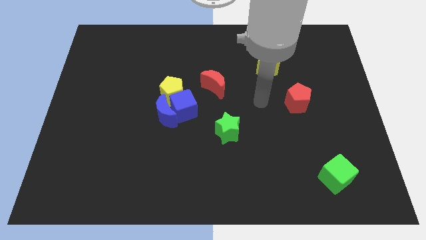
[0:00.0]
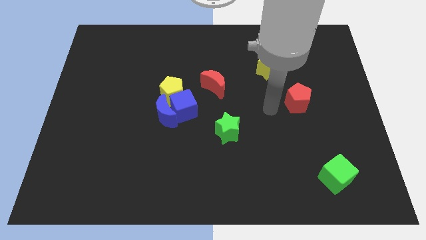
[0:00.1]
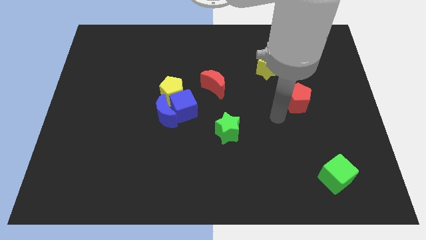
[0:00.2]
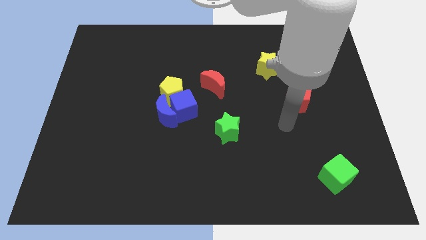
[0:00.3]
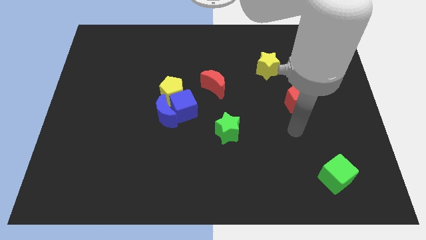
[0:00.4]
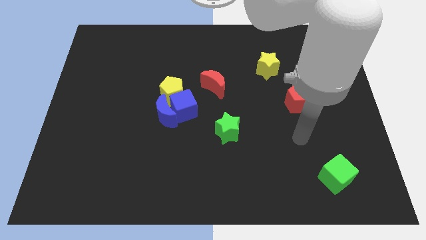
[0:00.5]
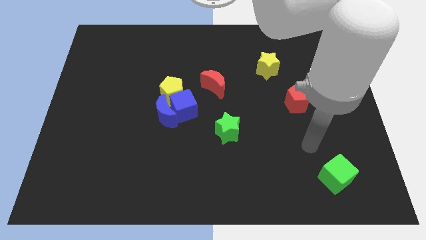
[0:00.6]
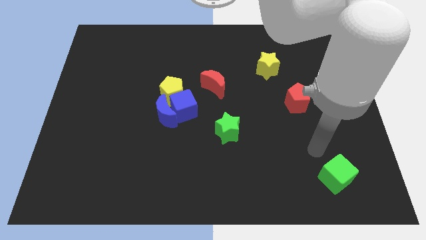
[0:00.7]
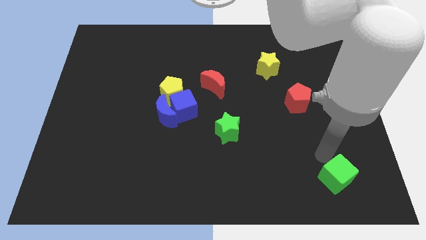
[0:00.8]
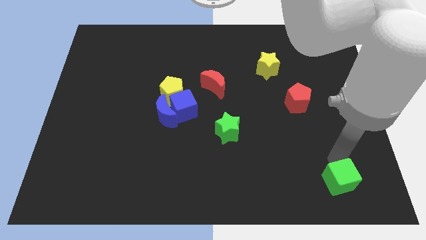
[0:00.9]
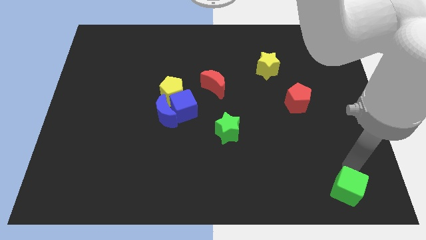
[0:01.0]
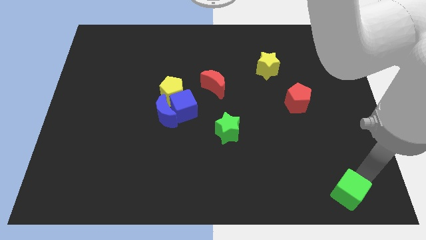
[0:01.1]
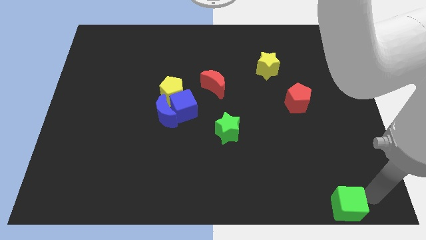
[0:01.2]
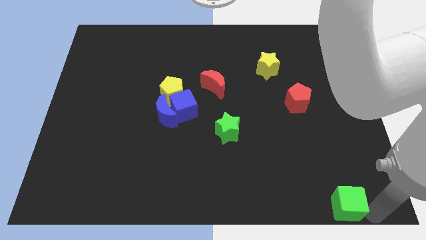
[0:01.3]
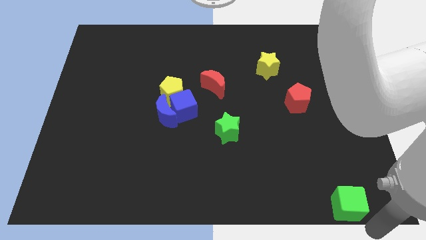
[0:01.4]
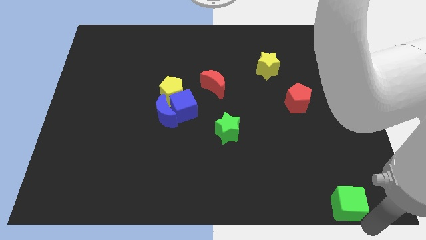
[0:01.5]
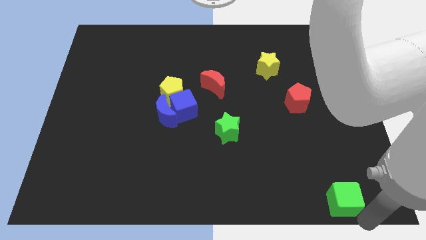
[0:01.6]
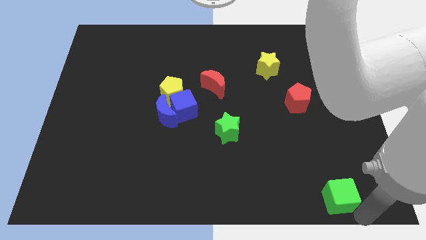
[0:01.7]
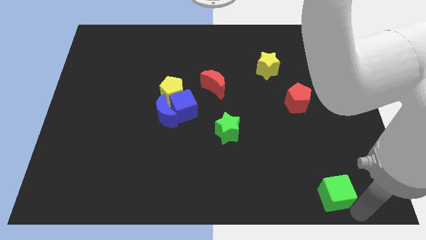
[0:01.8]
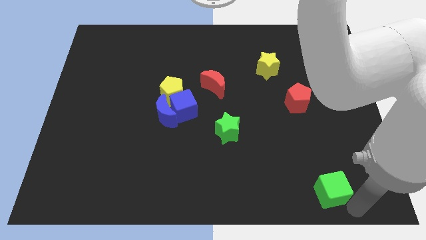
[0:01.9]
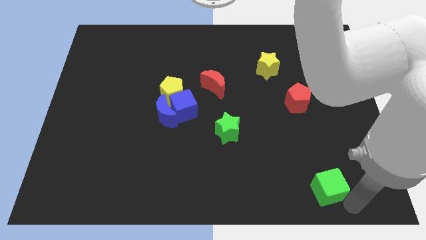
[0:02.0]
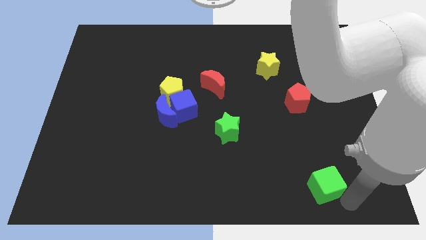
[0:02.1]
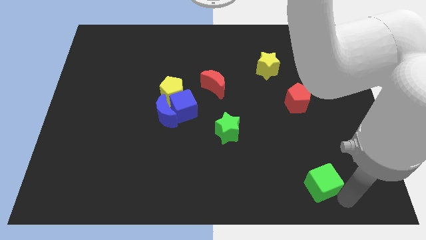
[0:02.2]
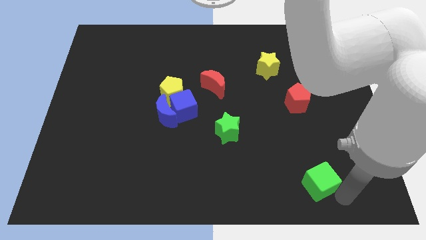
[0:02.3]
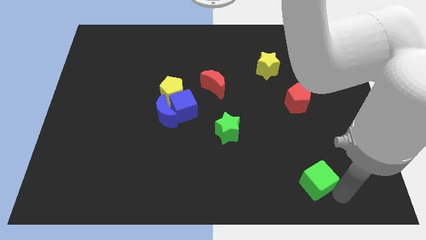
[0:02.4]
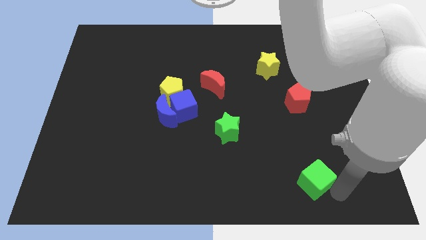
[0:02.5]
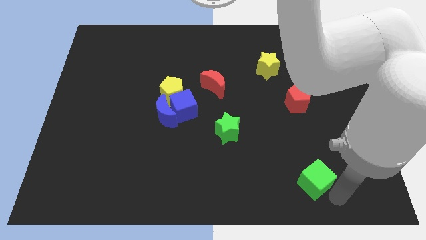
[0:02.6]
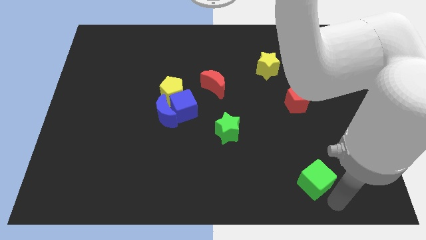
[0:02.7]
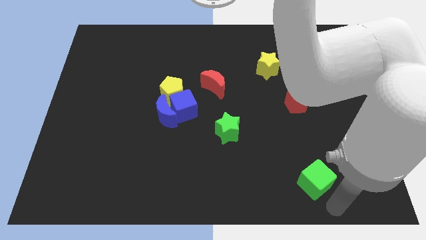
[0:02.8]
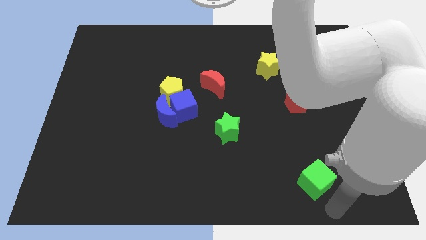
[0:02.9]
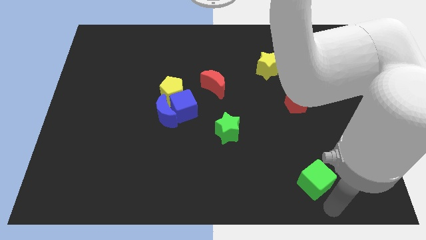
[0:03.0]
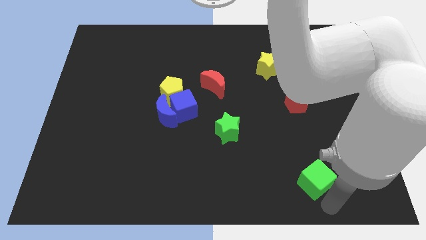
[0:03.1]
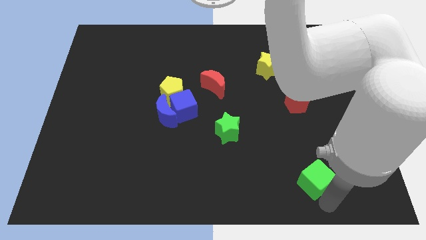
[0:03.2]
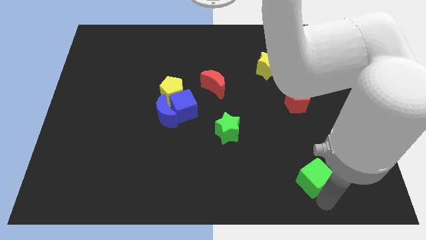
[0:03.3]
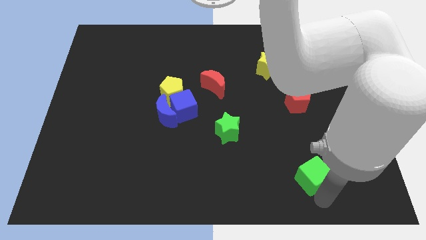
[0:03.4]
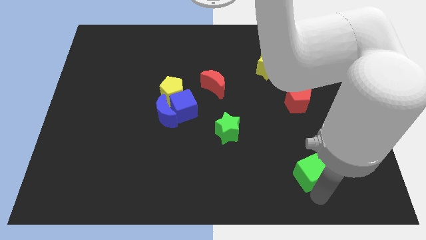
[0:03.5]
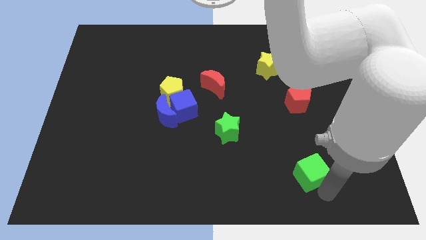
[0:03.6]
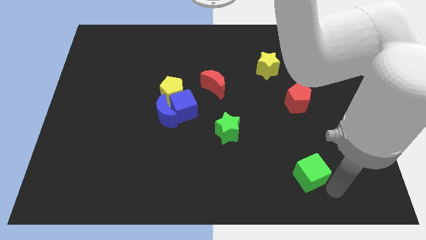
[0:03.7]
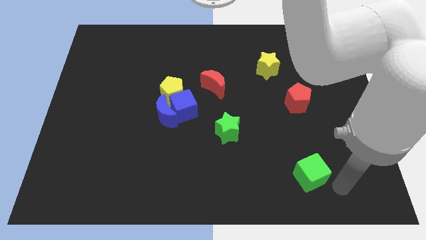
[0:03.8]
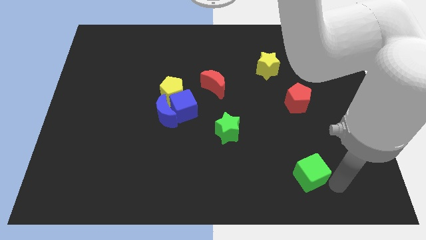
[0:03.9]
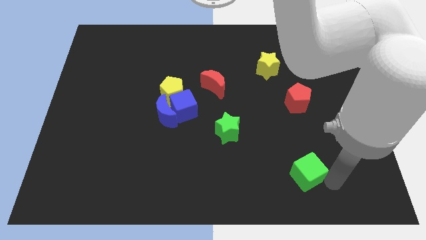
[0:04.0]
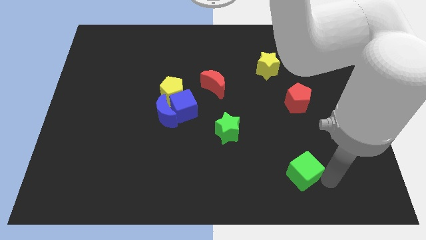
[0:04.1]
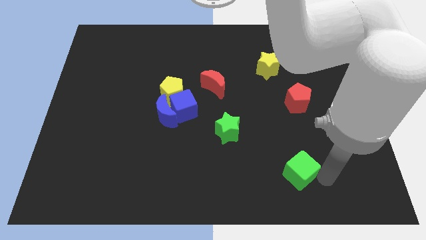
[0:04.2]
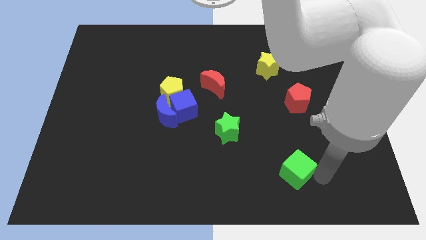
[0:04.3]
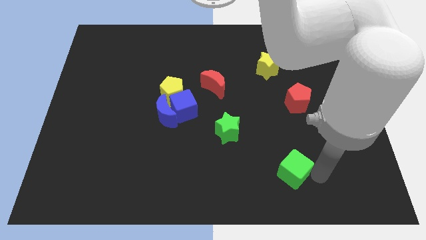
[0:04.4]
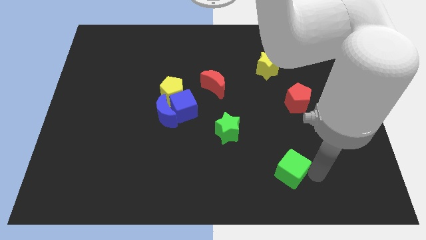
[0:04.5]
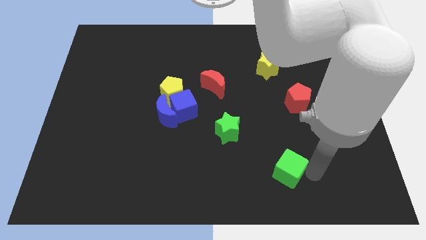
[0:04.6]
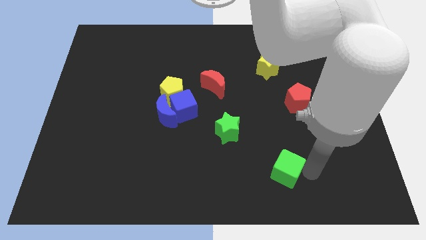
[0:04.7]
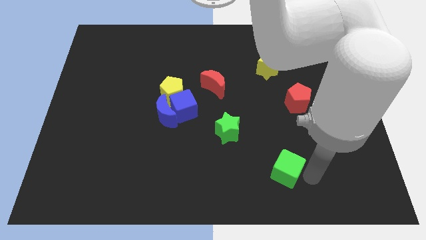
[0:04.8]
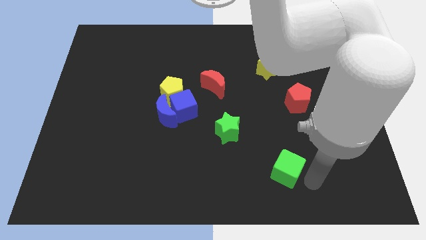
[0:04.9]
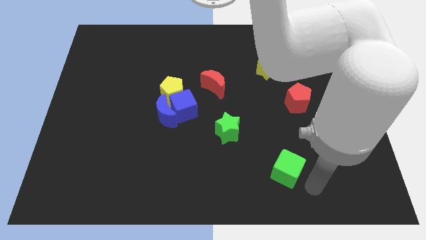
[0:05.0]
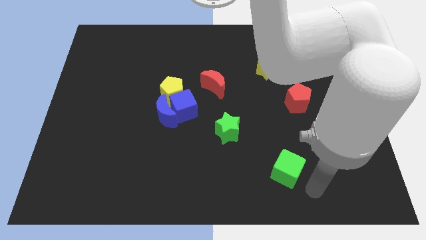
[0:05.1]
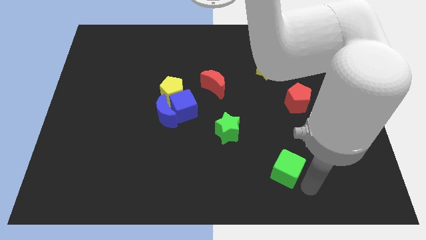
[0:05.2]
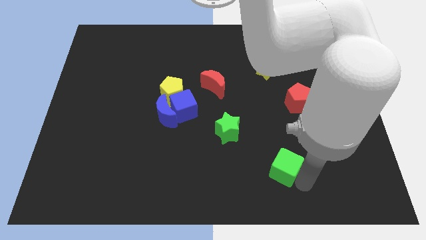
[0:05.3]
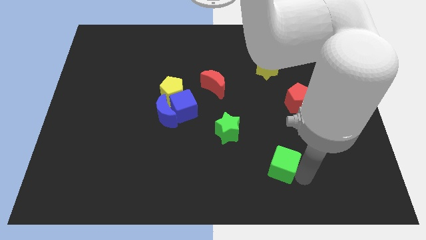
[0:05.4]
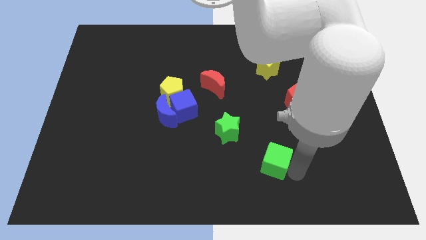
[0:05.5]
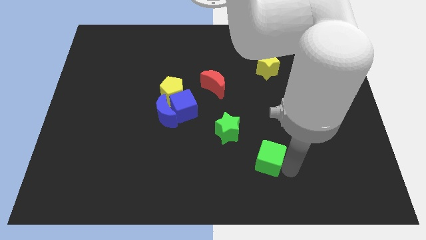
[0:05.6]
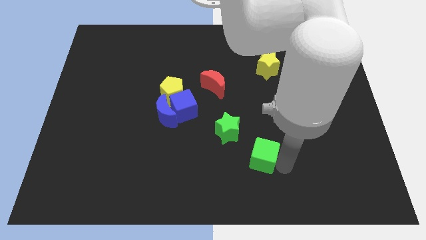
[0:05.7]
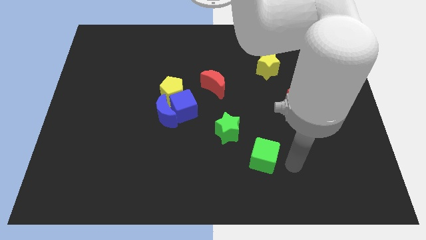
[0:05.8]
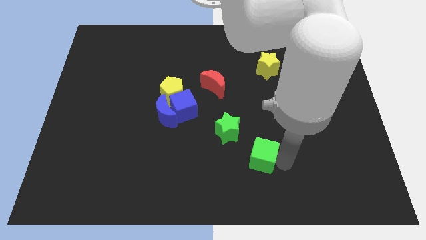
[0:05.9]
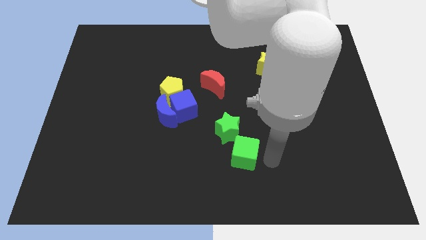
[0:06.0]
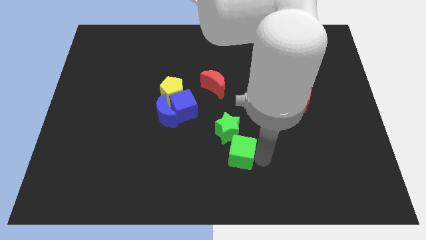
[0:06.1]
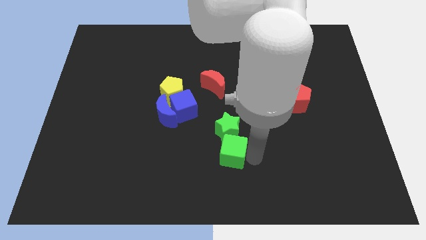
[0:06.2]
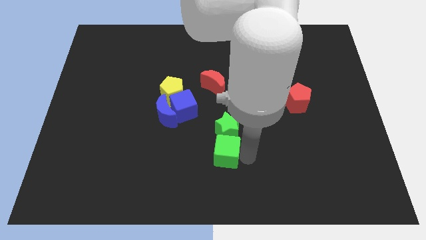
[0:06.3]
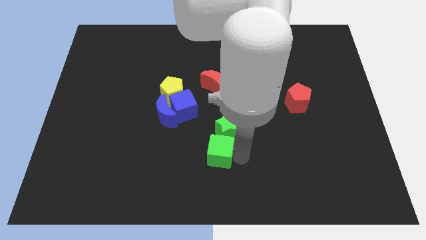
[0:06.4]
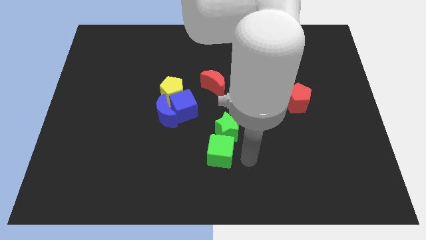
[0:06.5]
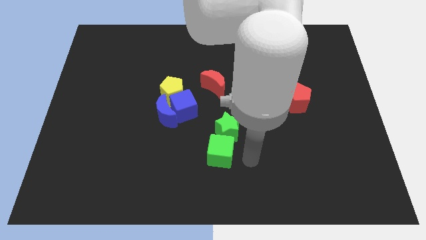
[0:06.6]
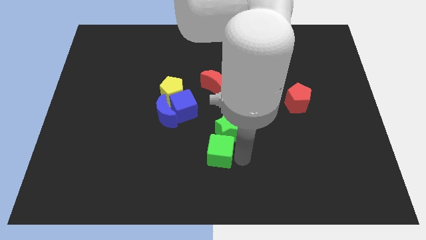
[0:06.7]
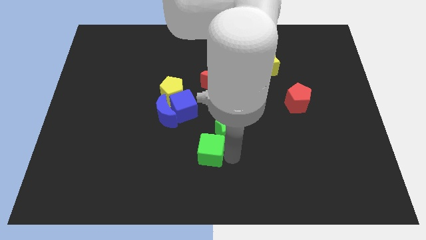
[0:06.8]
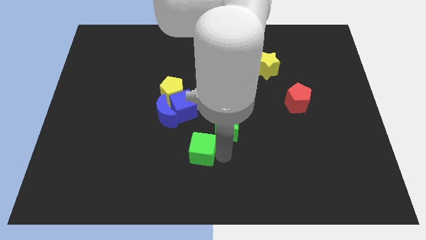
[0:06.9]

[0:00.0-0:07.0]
move the green cube to the bottom of the blue cube
